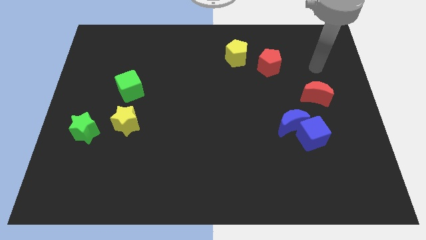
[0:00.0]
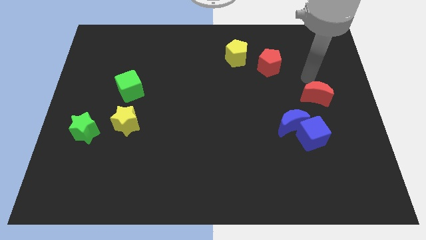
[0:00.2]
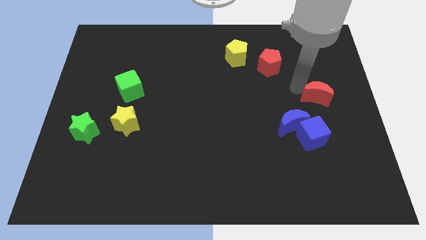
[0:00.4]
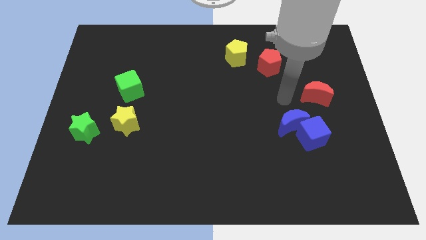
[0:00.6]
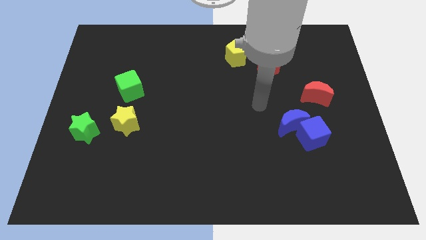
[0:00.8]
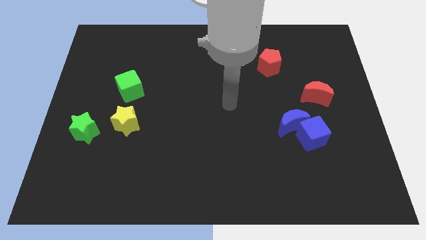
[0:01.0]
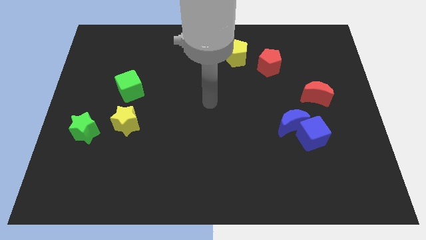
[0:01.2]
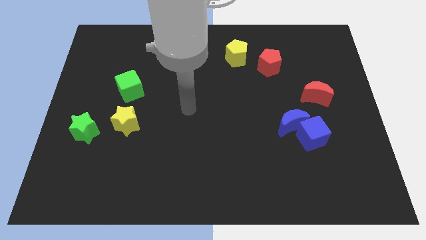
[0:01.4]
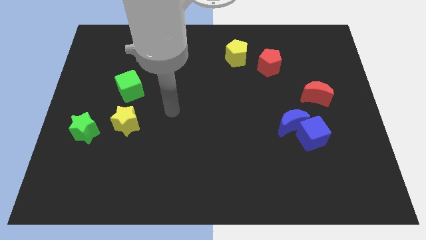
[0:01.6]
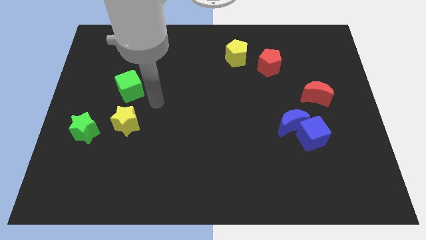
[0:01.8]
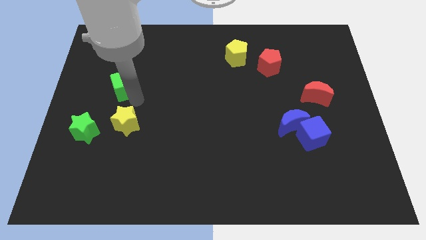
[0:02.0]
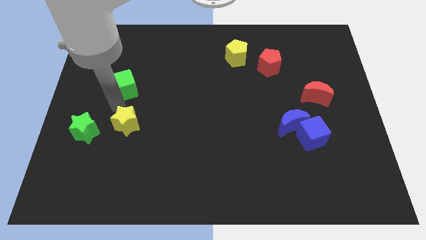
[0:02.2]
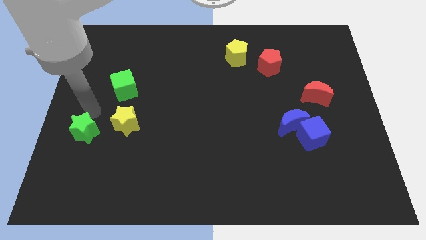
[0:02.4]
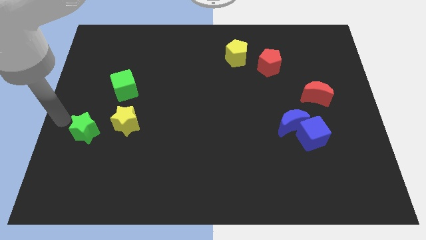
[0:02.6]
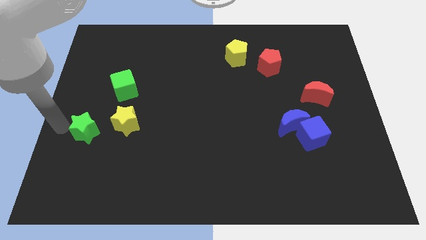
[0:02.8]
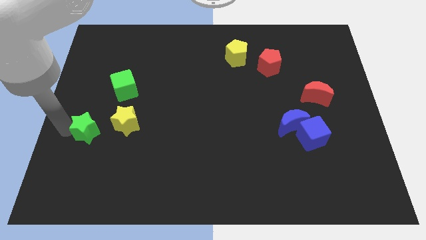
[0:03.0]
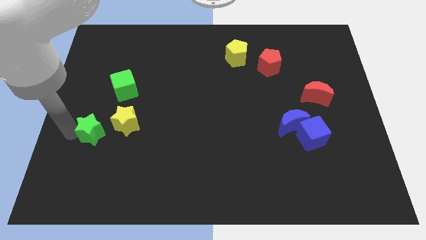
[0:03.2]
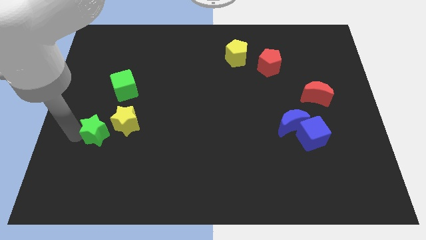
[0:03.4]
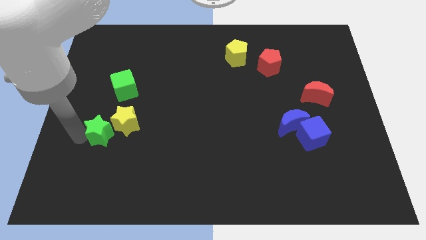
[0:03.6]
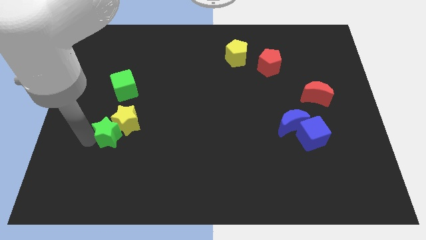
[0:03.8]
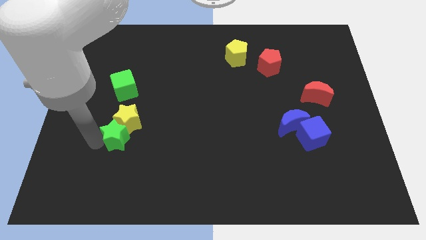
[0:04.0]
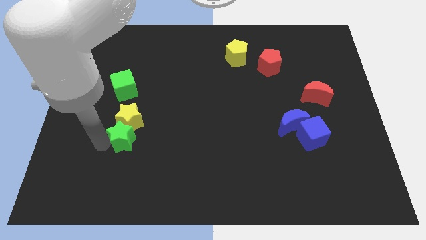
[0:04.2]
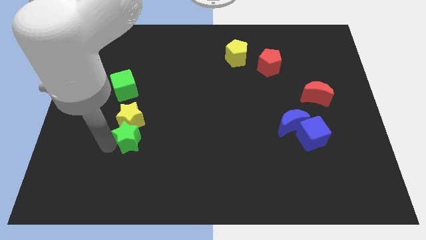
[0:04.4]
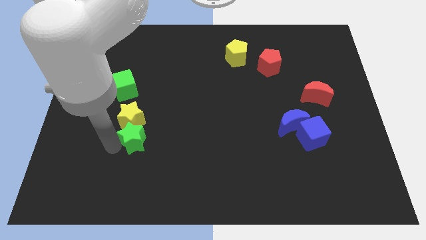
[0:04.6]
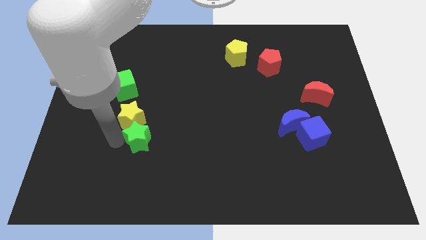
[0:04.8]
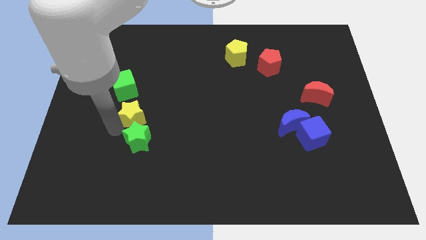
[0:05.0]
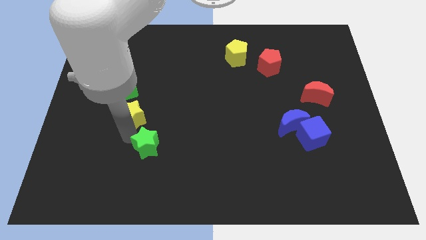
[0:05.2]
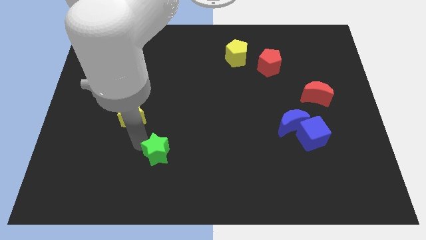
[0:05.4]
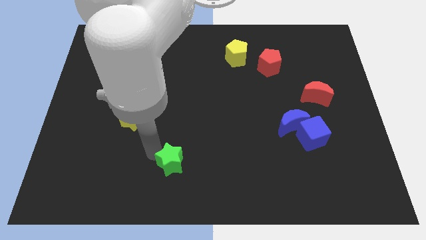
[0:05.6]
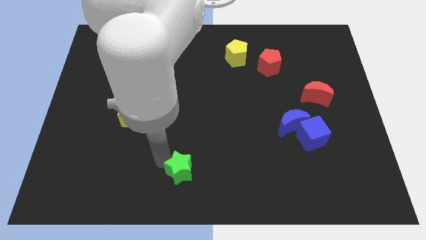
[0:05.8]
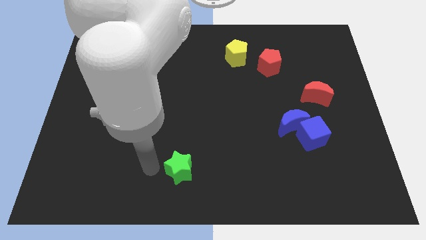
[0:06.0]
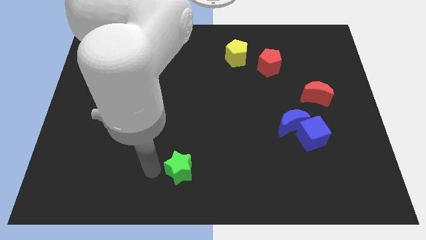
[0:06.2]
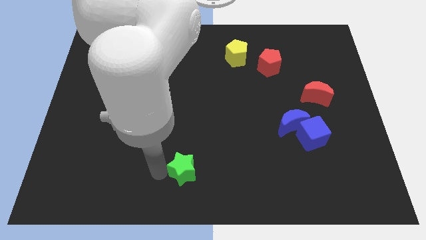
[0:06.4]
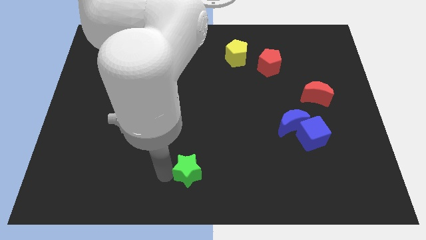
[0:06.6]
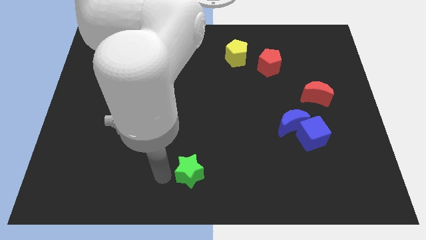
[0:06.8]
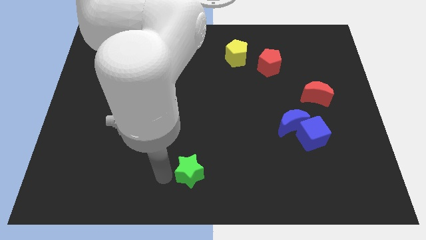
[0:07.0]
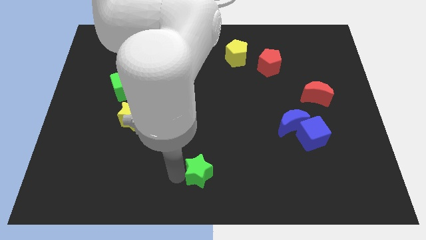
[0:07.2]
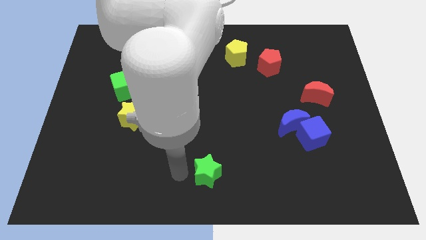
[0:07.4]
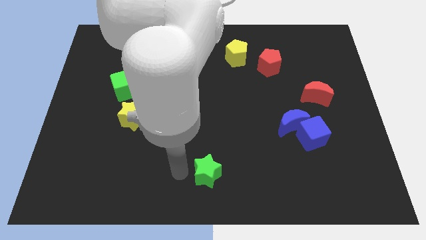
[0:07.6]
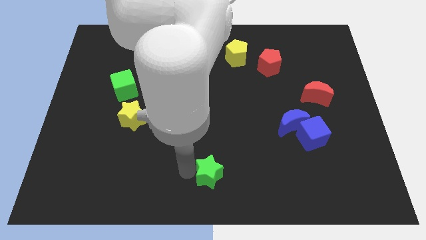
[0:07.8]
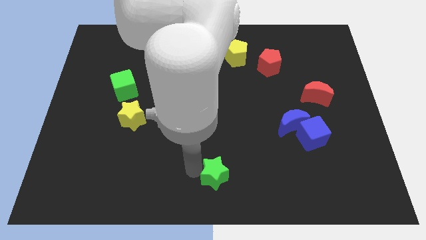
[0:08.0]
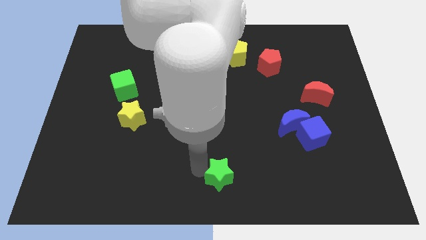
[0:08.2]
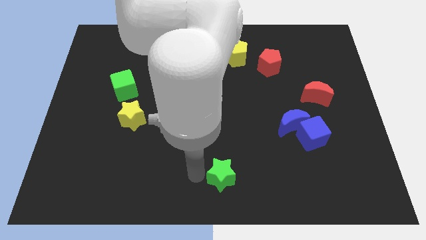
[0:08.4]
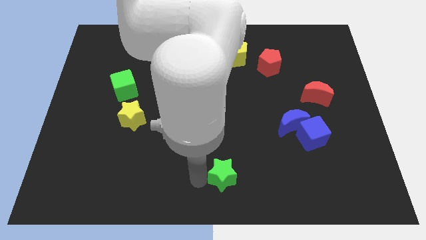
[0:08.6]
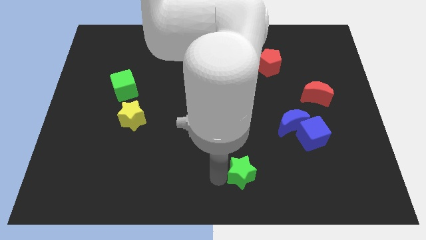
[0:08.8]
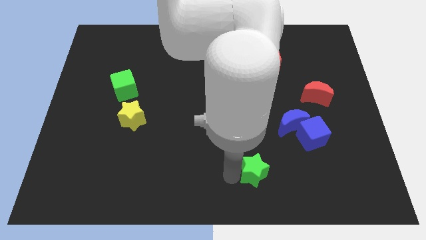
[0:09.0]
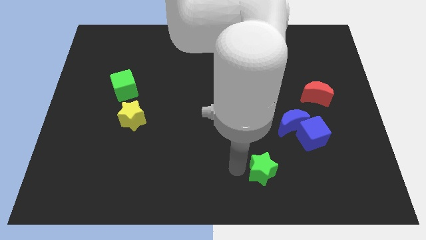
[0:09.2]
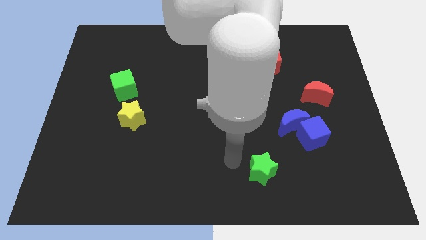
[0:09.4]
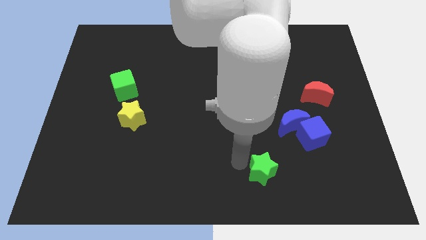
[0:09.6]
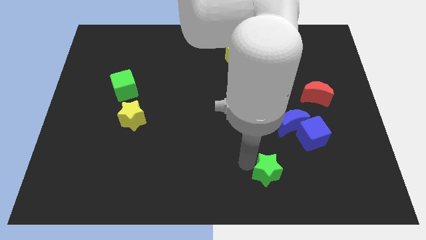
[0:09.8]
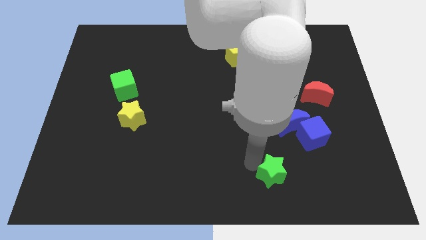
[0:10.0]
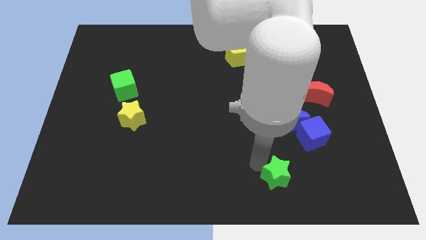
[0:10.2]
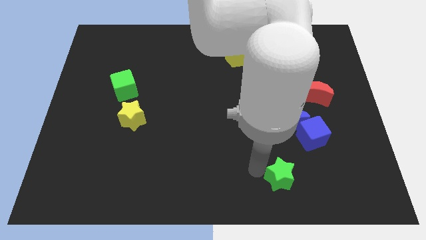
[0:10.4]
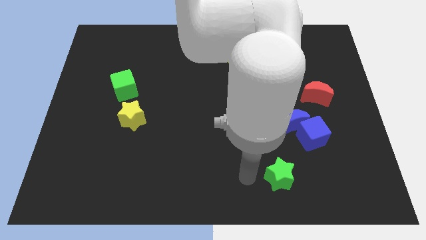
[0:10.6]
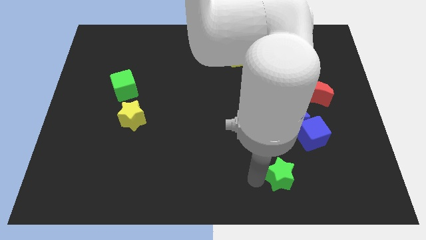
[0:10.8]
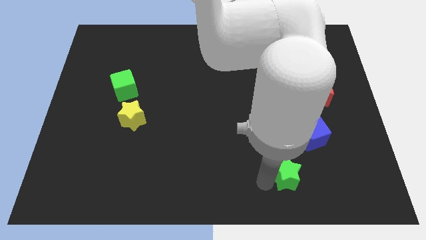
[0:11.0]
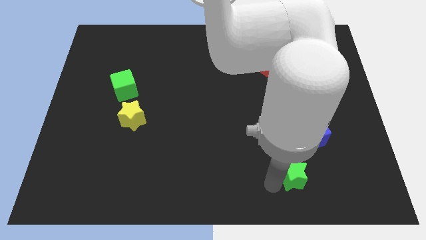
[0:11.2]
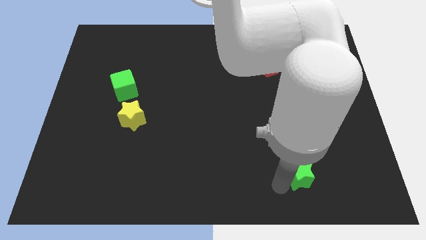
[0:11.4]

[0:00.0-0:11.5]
slide the green star below the blue cube

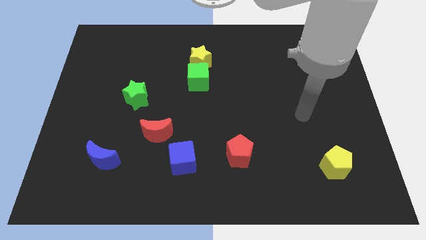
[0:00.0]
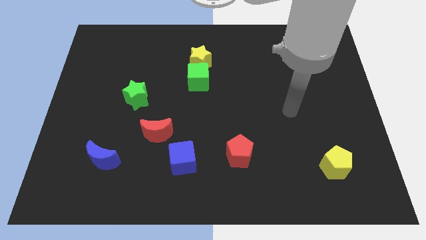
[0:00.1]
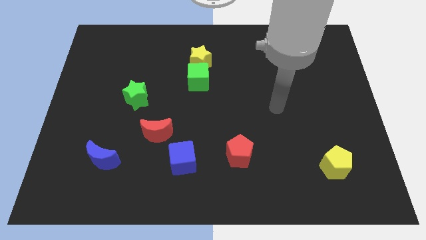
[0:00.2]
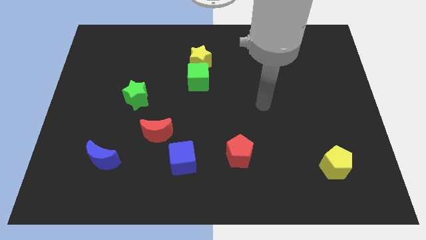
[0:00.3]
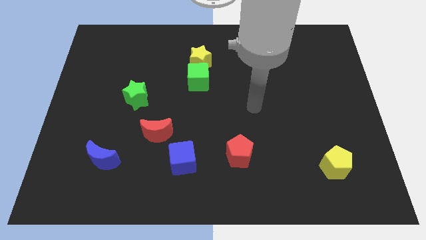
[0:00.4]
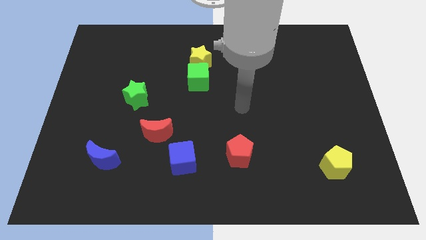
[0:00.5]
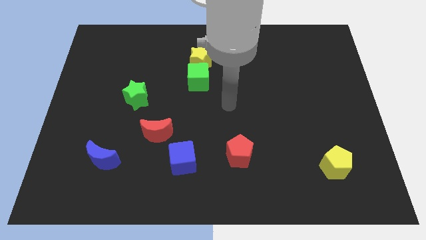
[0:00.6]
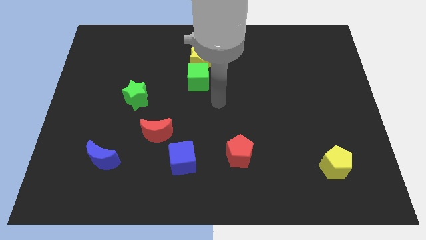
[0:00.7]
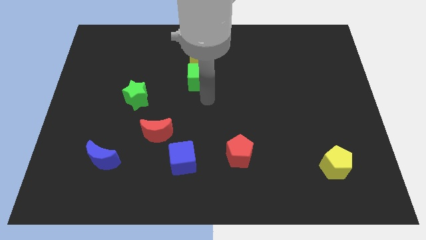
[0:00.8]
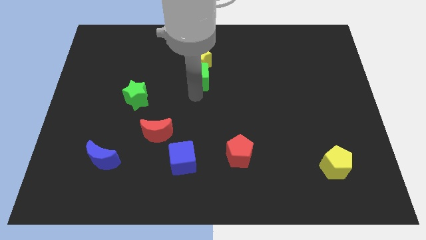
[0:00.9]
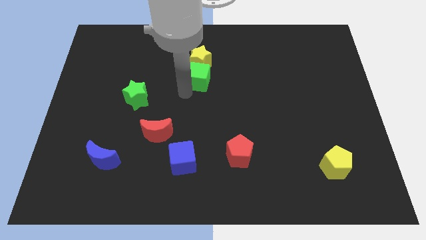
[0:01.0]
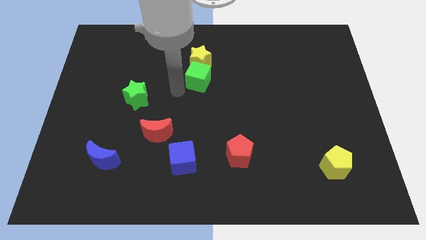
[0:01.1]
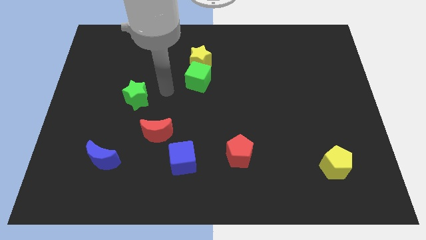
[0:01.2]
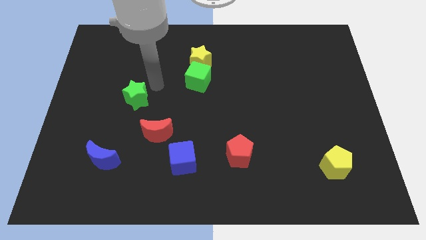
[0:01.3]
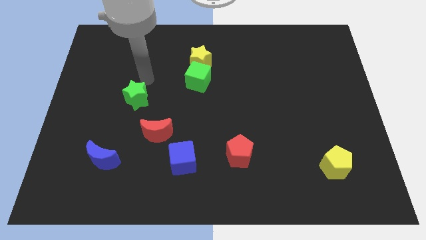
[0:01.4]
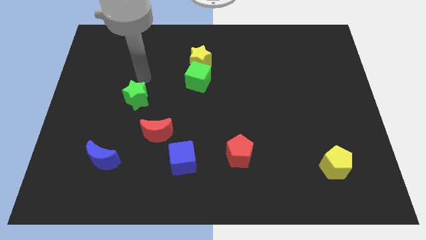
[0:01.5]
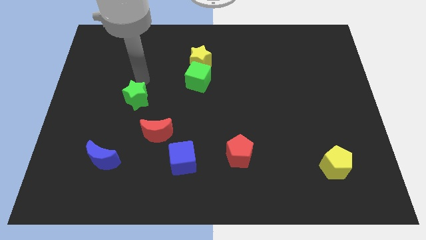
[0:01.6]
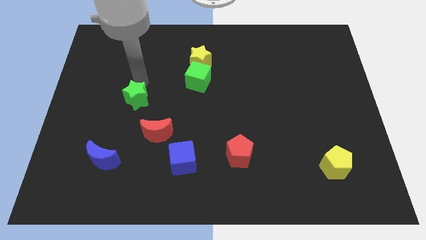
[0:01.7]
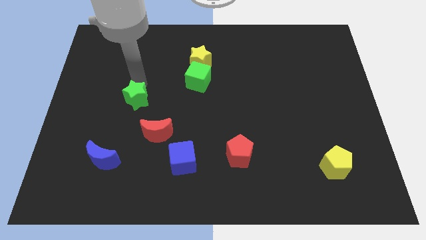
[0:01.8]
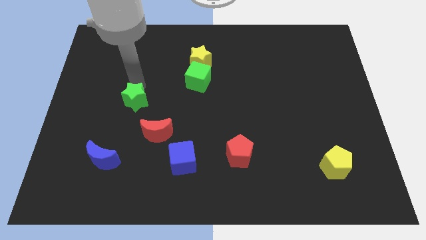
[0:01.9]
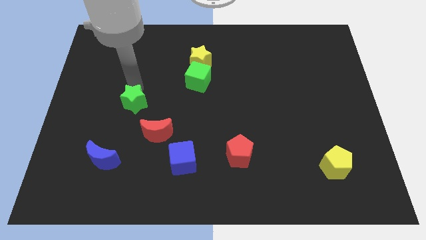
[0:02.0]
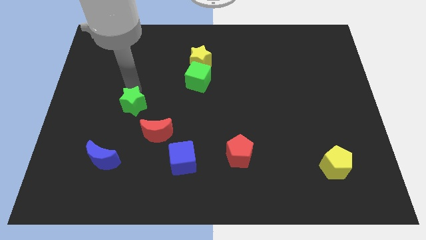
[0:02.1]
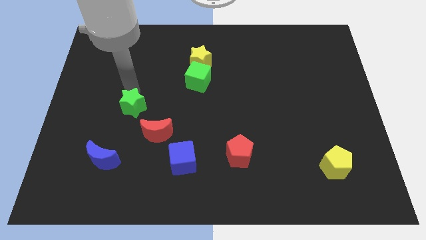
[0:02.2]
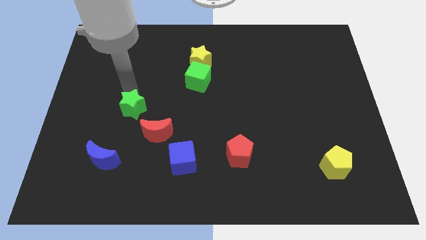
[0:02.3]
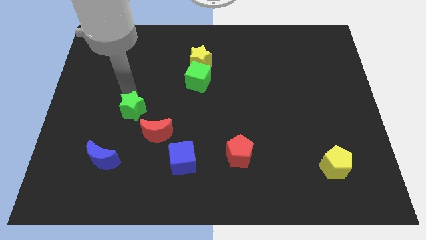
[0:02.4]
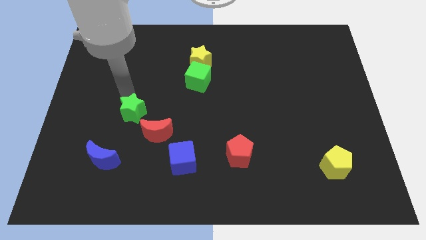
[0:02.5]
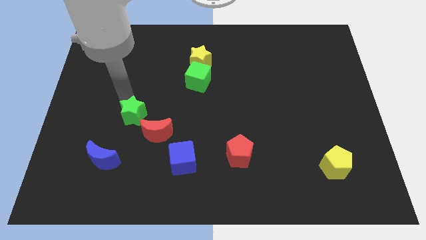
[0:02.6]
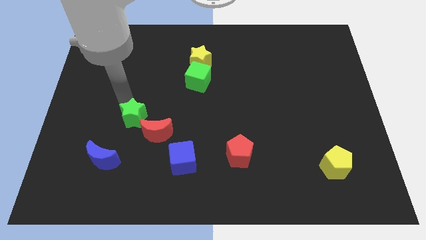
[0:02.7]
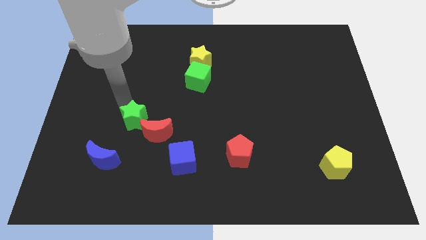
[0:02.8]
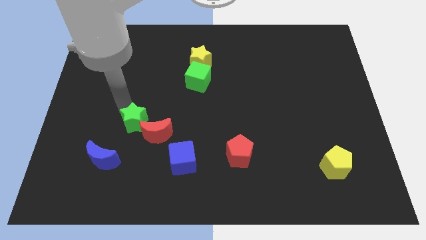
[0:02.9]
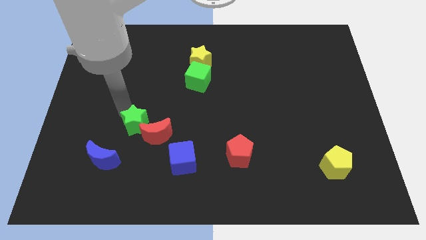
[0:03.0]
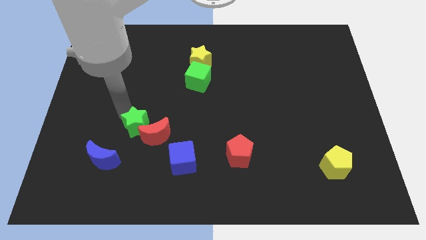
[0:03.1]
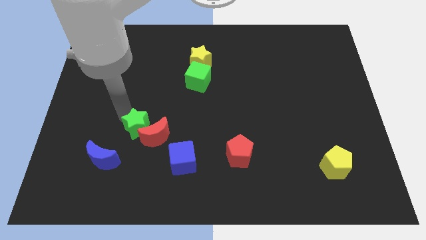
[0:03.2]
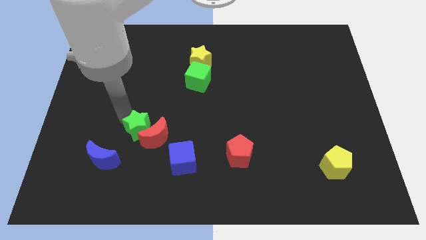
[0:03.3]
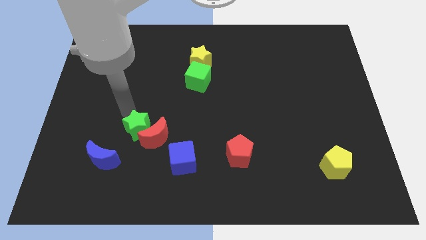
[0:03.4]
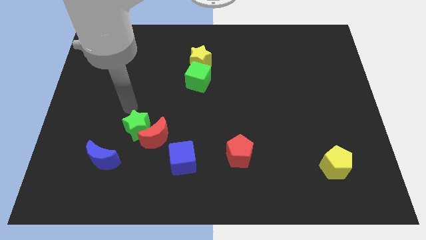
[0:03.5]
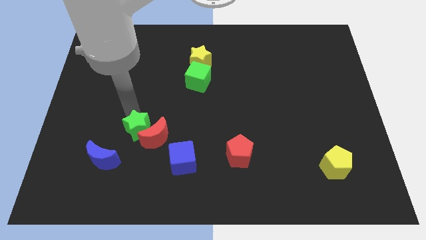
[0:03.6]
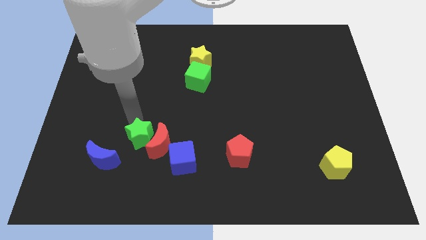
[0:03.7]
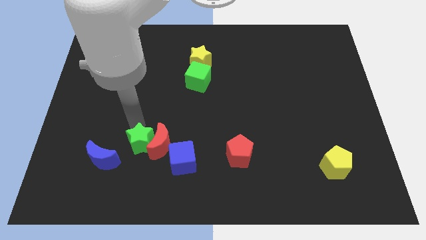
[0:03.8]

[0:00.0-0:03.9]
move the green star just right of the blue moon
